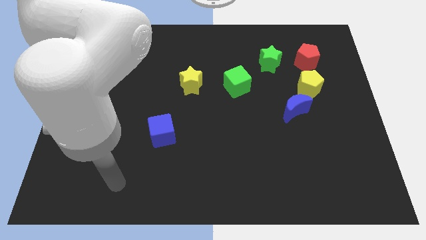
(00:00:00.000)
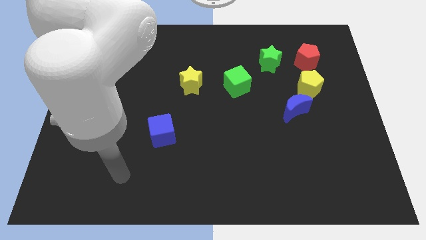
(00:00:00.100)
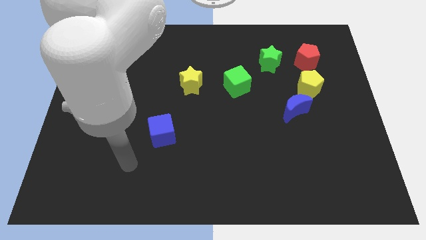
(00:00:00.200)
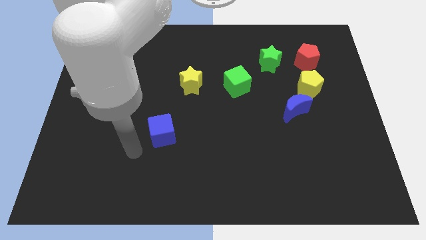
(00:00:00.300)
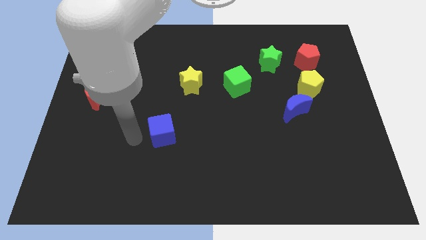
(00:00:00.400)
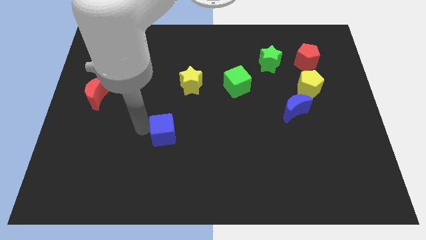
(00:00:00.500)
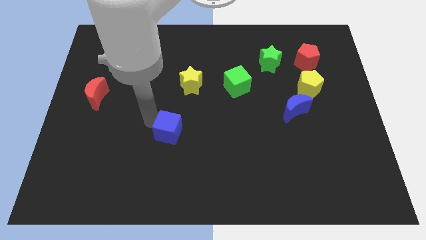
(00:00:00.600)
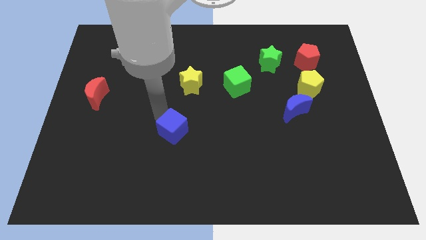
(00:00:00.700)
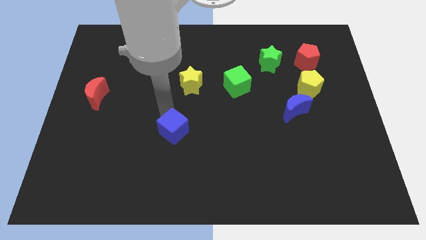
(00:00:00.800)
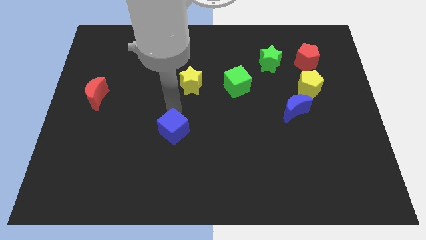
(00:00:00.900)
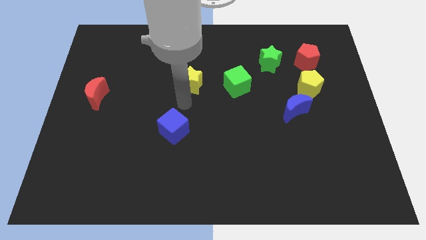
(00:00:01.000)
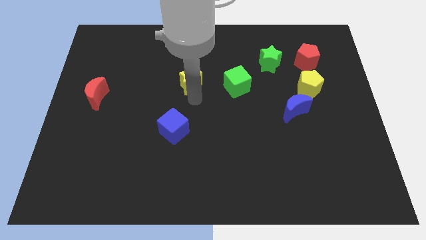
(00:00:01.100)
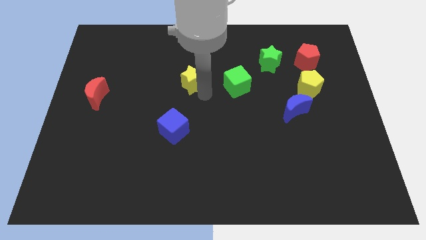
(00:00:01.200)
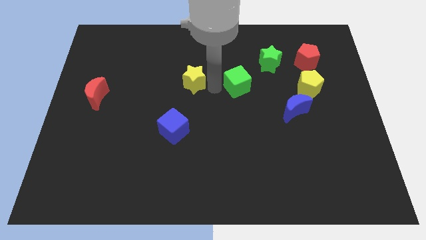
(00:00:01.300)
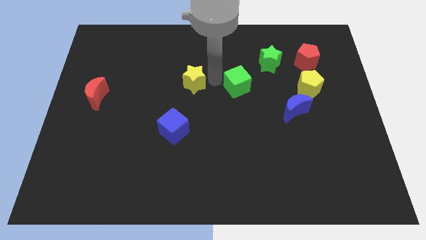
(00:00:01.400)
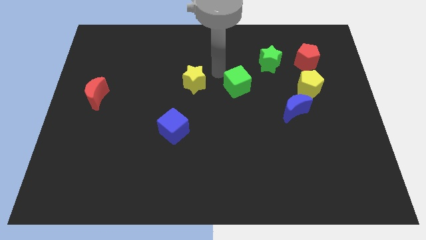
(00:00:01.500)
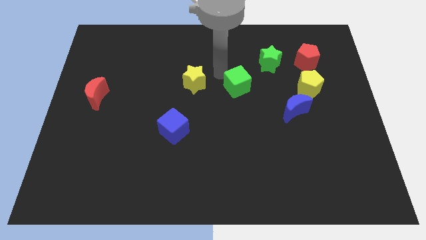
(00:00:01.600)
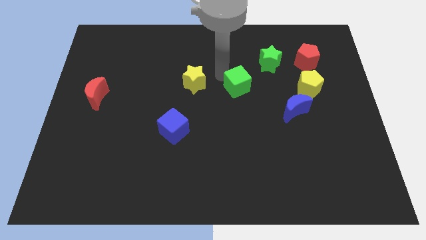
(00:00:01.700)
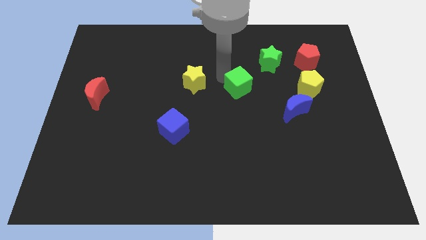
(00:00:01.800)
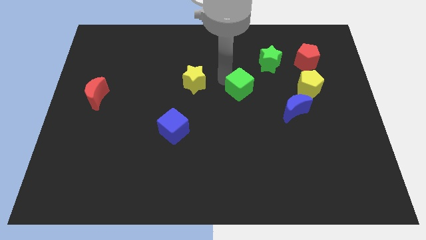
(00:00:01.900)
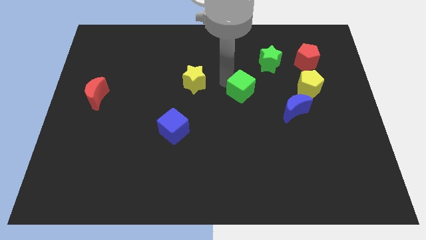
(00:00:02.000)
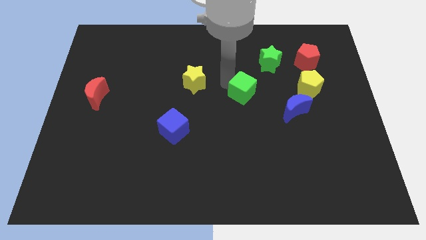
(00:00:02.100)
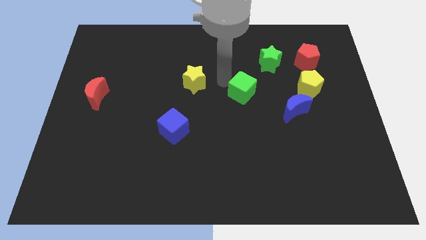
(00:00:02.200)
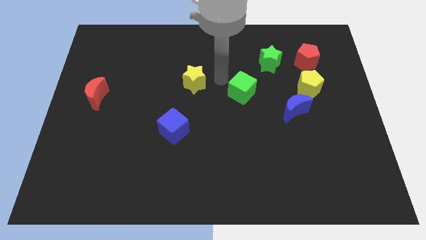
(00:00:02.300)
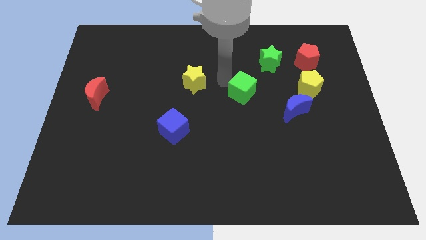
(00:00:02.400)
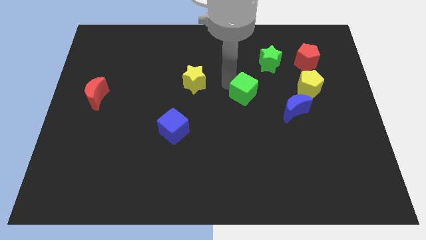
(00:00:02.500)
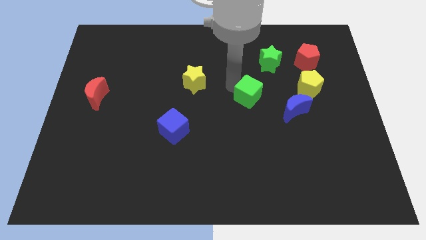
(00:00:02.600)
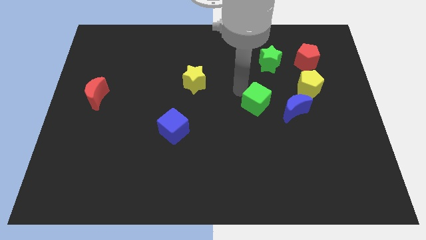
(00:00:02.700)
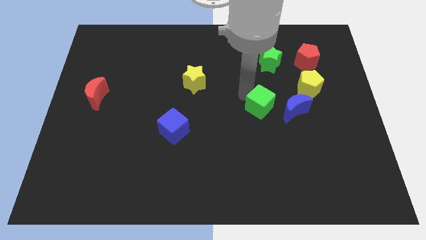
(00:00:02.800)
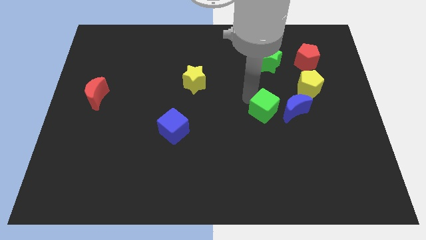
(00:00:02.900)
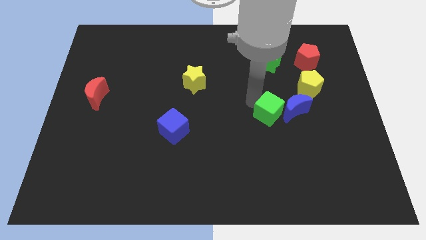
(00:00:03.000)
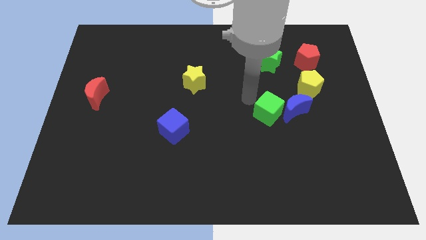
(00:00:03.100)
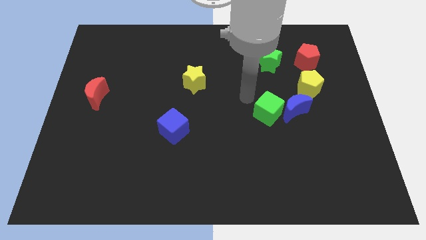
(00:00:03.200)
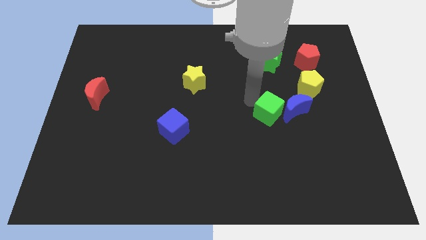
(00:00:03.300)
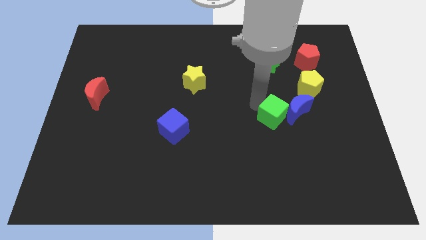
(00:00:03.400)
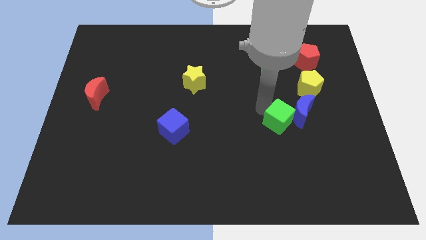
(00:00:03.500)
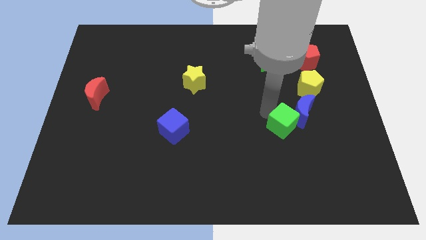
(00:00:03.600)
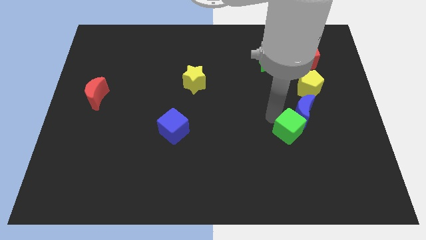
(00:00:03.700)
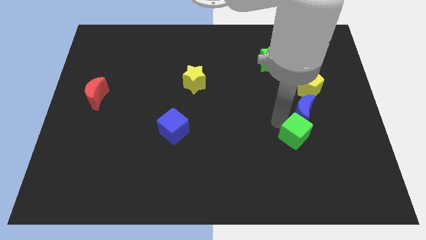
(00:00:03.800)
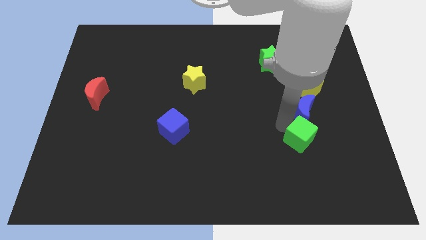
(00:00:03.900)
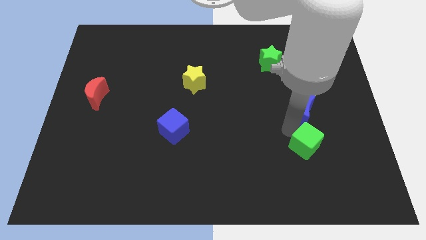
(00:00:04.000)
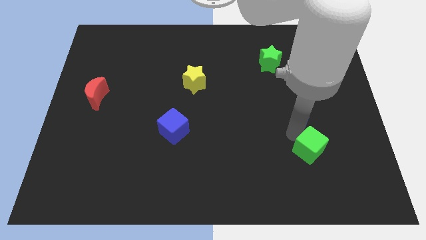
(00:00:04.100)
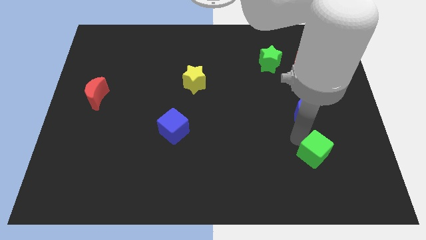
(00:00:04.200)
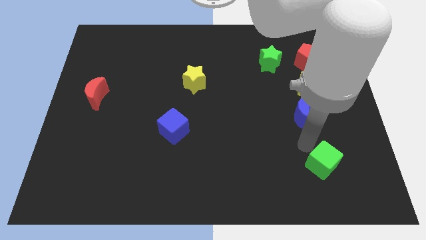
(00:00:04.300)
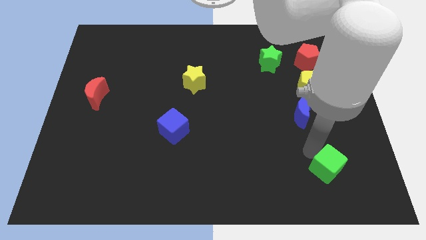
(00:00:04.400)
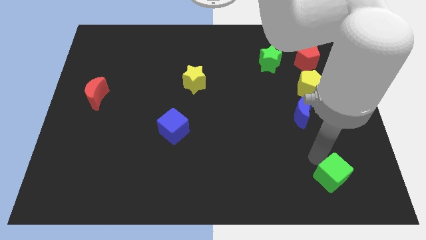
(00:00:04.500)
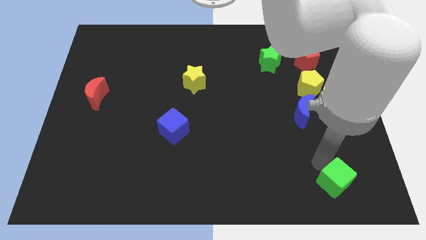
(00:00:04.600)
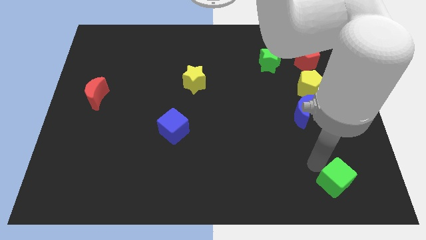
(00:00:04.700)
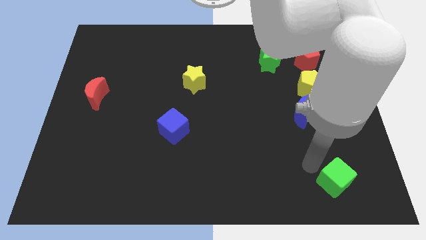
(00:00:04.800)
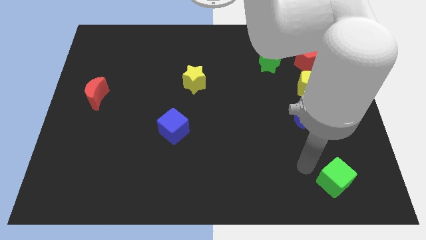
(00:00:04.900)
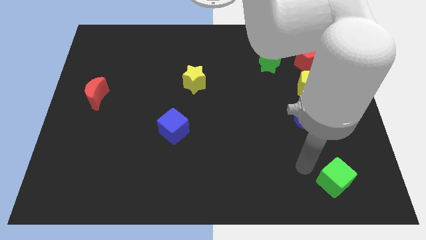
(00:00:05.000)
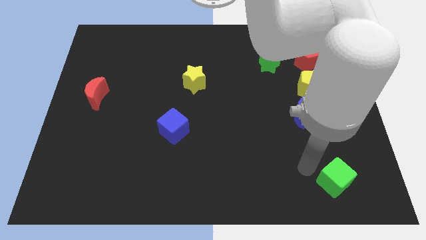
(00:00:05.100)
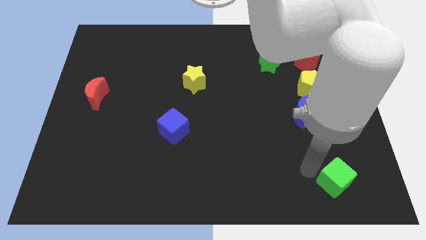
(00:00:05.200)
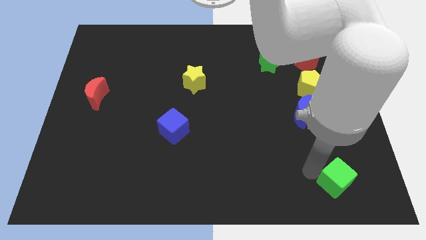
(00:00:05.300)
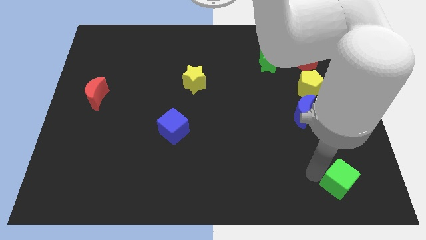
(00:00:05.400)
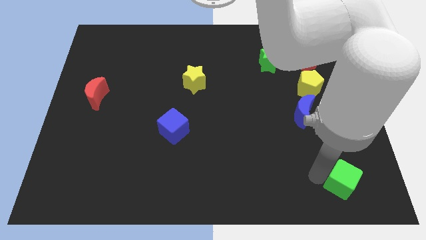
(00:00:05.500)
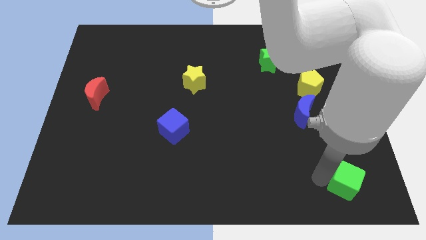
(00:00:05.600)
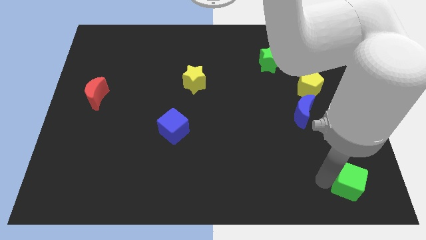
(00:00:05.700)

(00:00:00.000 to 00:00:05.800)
move the green cube to the bottom right
